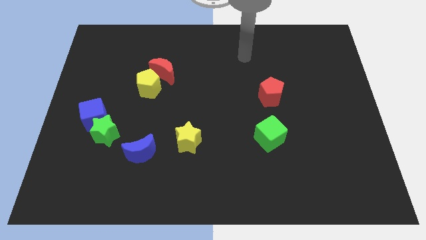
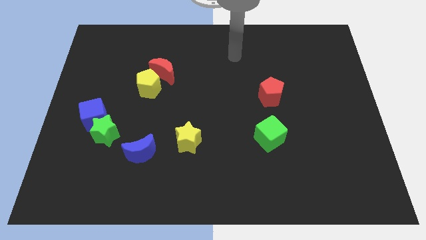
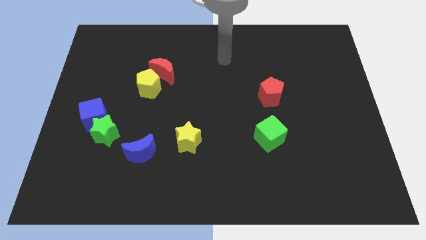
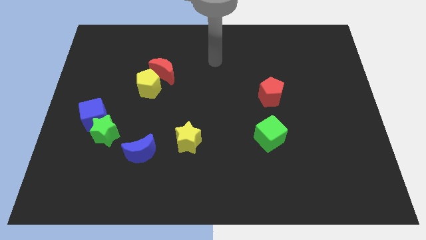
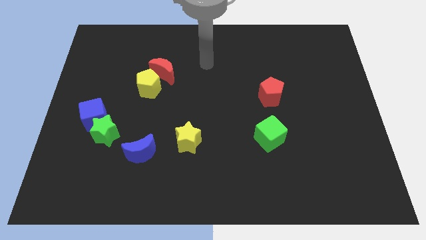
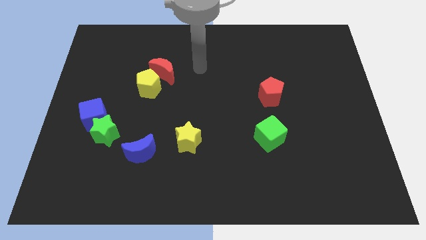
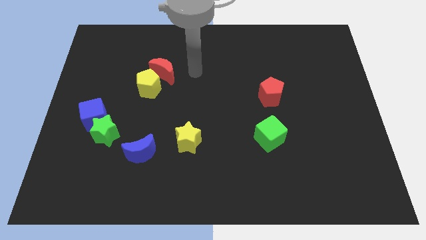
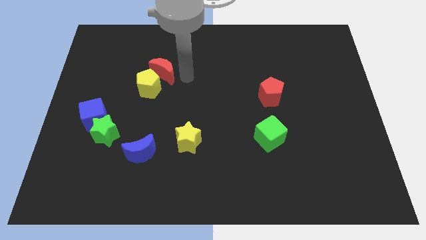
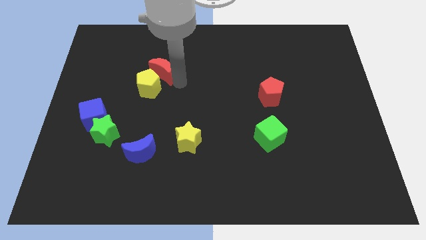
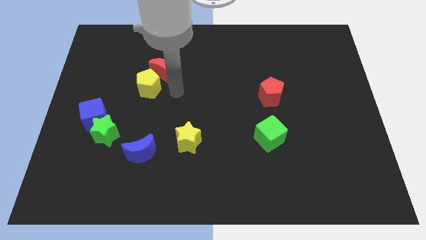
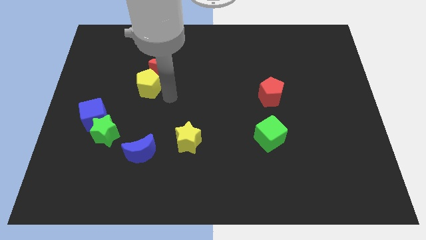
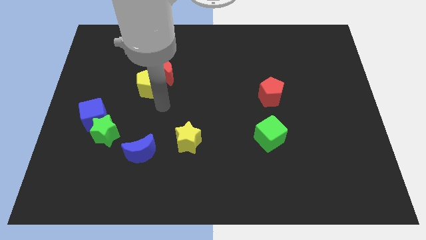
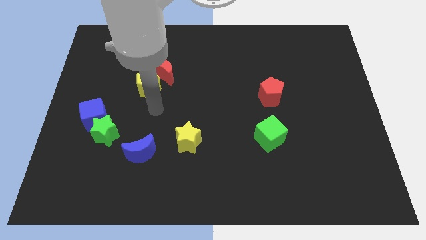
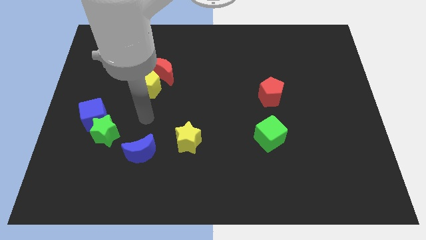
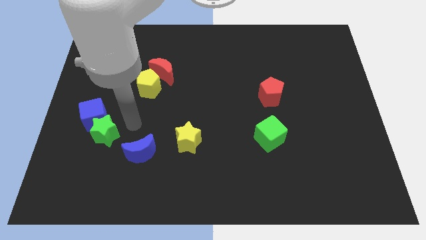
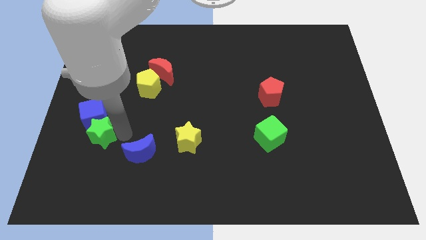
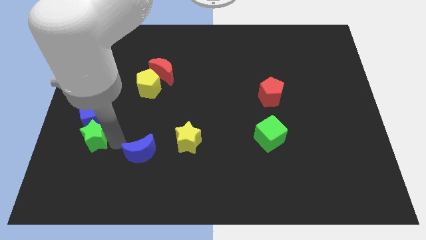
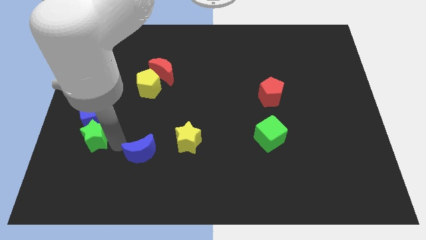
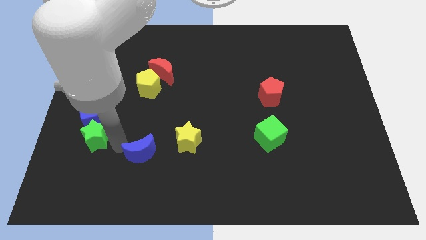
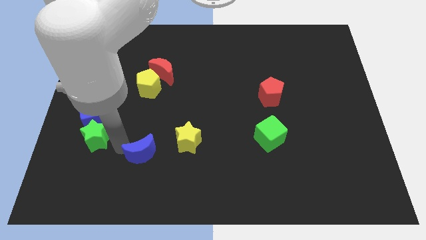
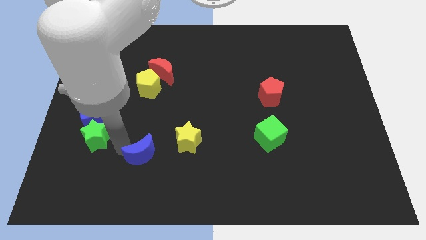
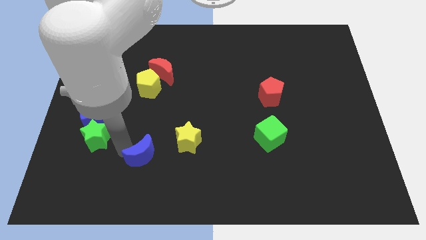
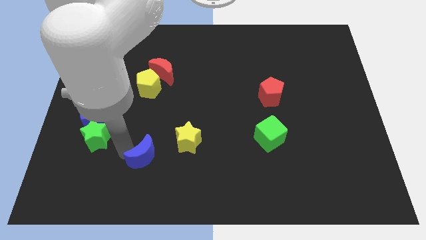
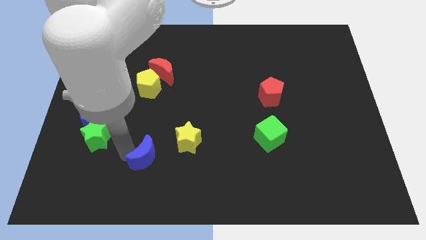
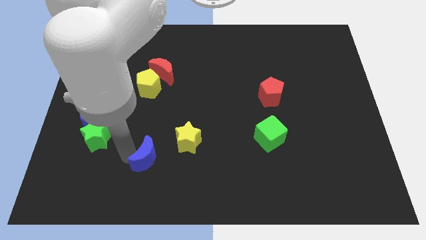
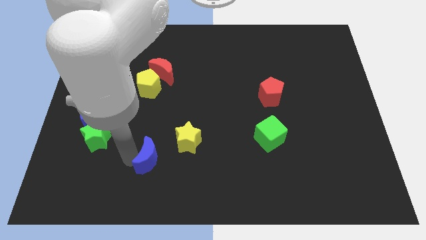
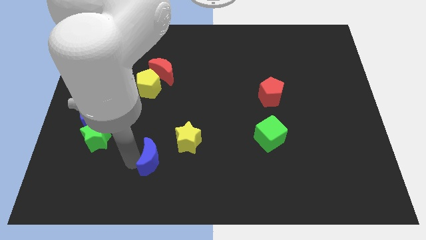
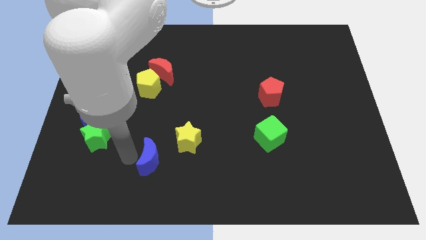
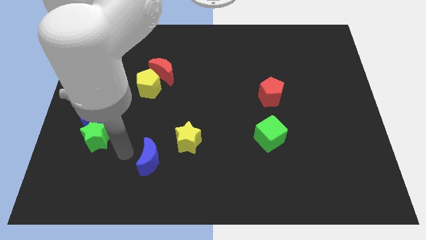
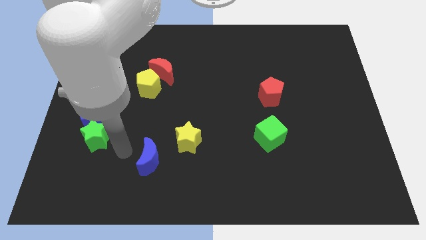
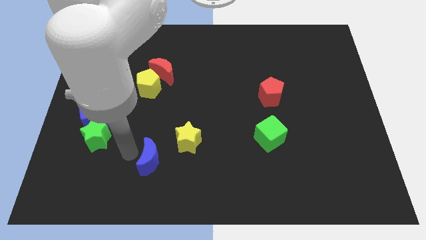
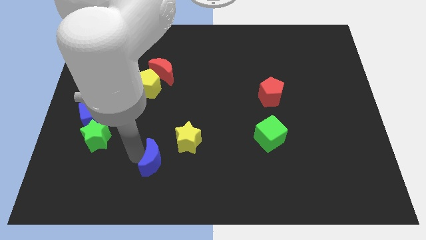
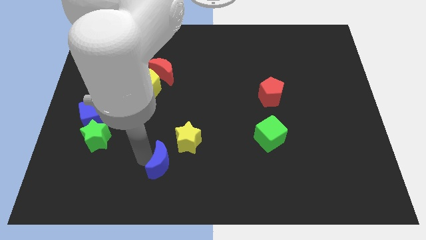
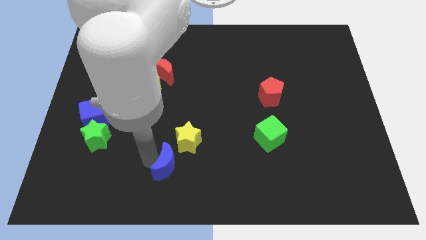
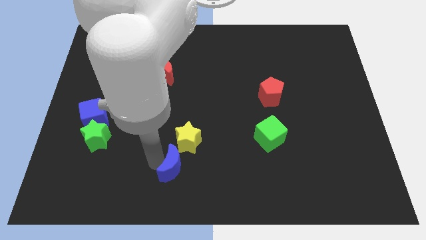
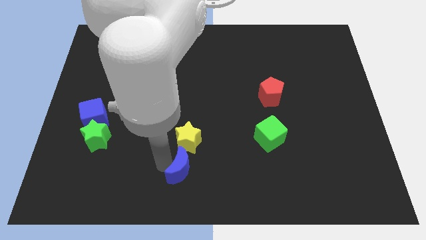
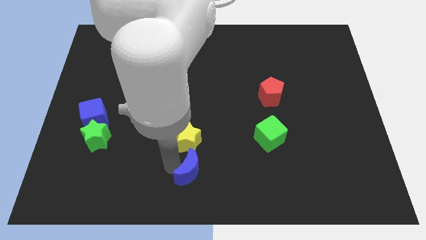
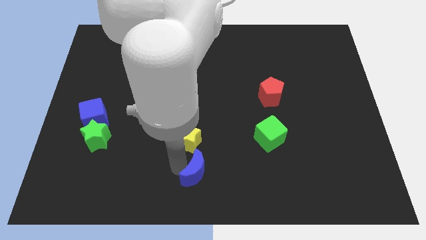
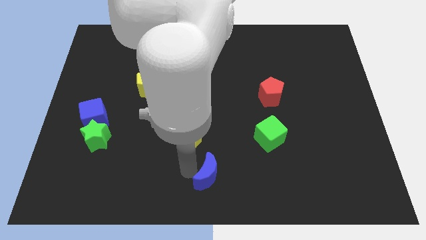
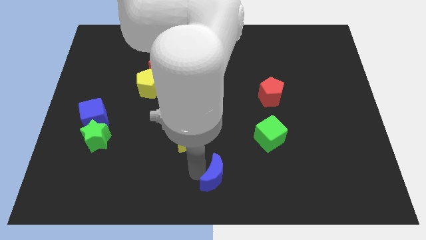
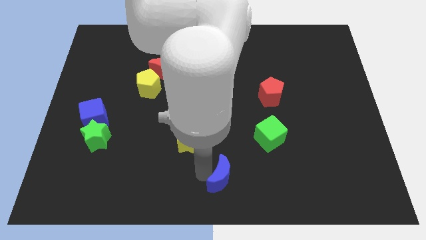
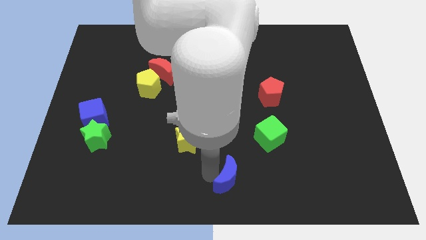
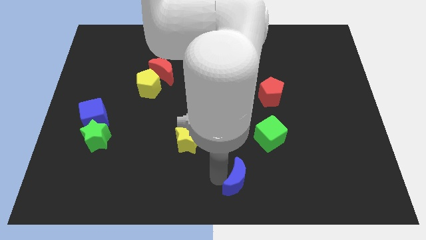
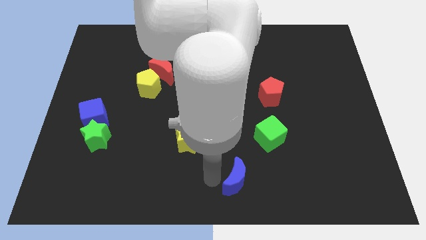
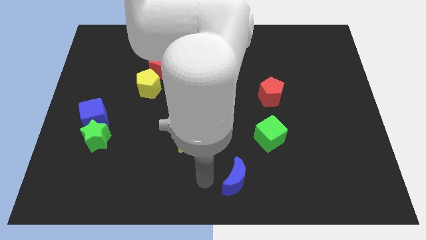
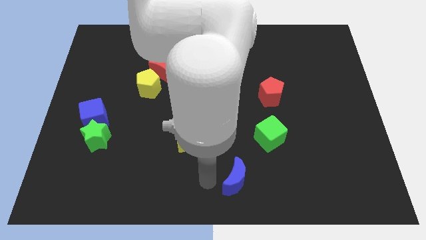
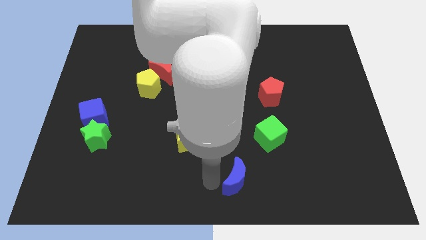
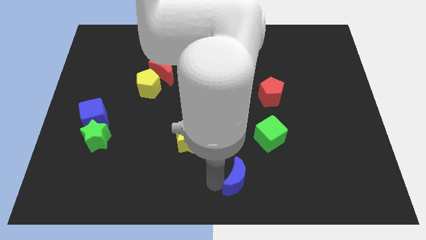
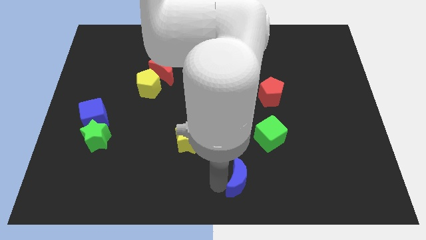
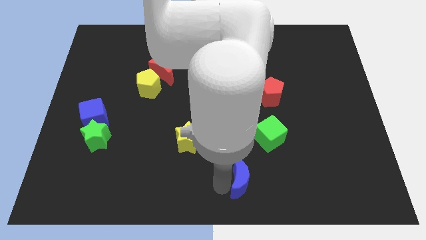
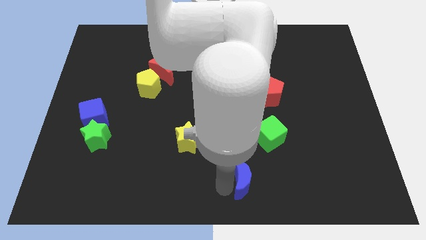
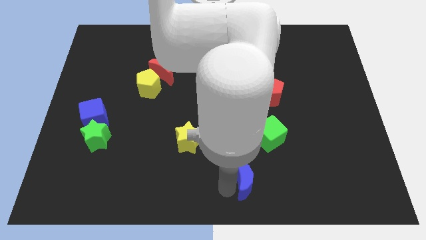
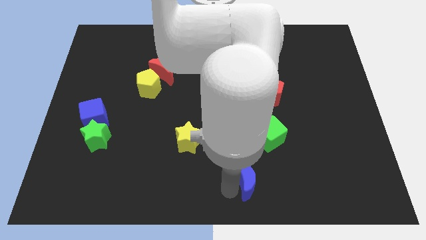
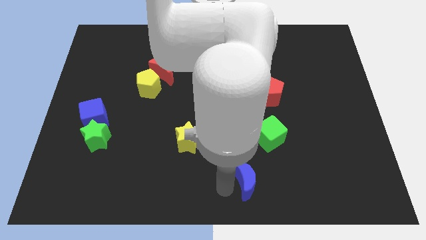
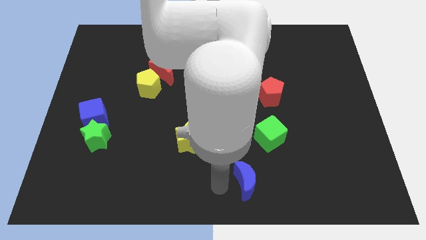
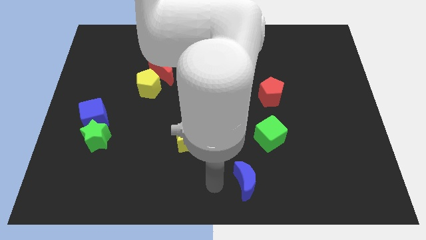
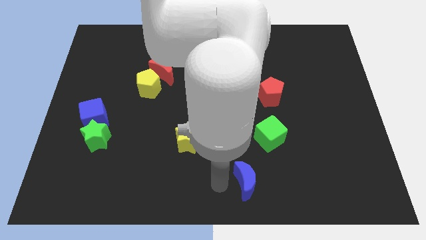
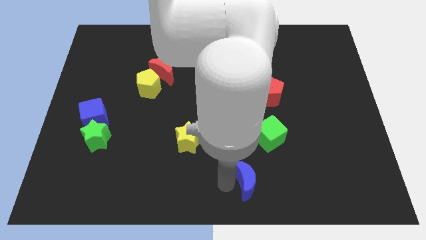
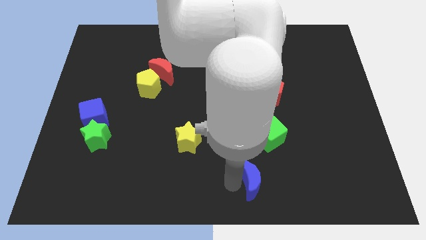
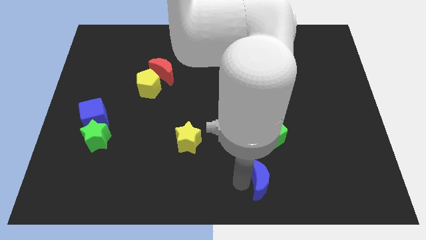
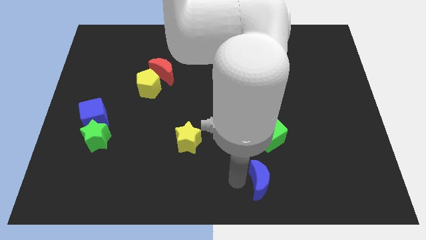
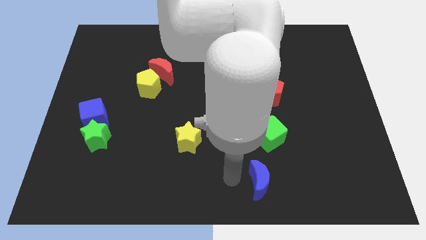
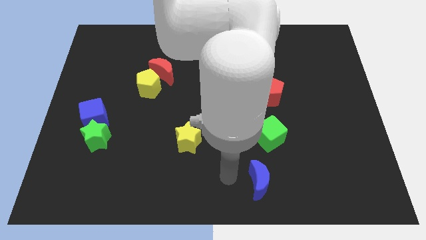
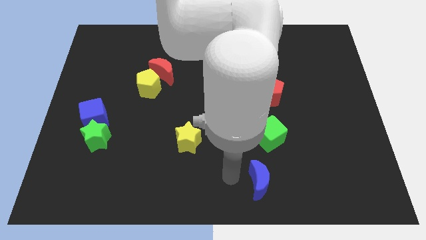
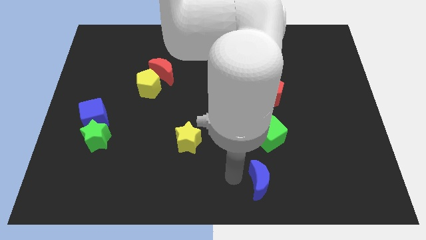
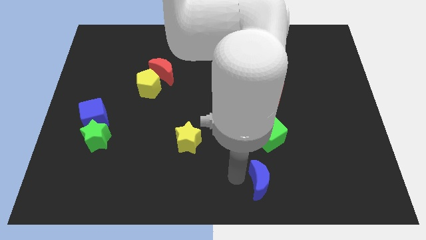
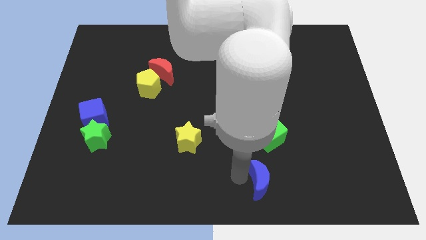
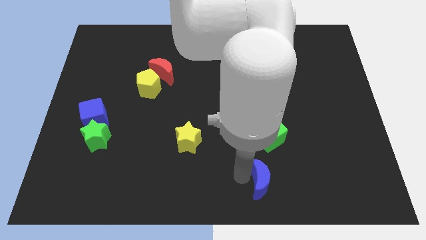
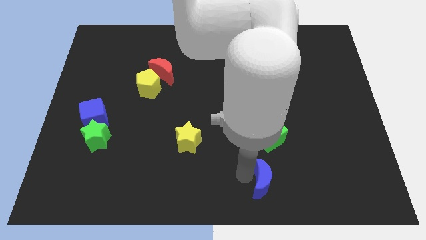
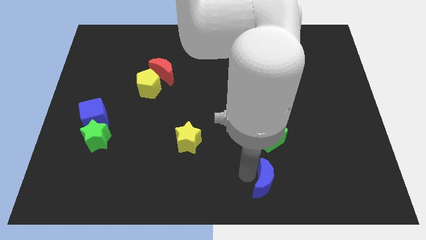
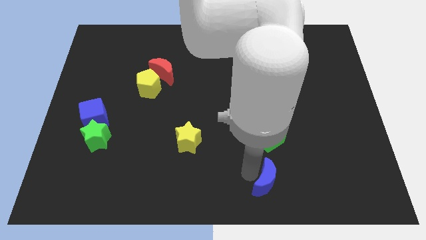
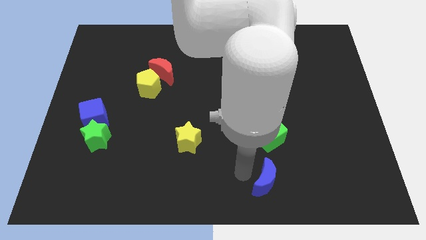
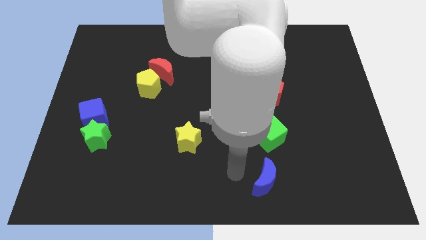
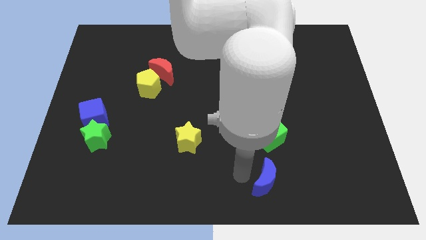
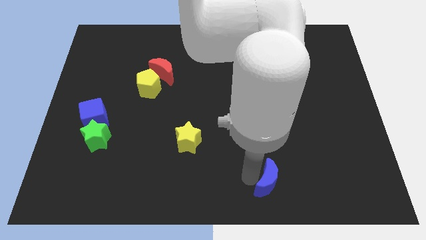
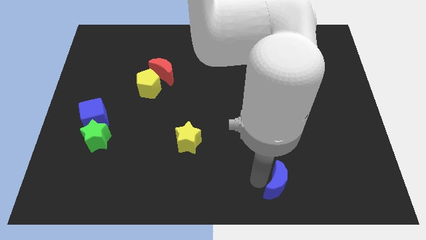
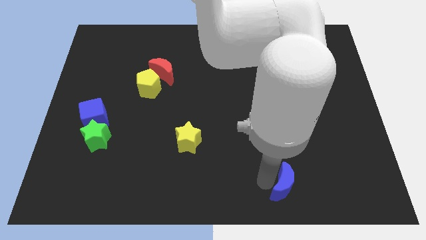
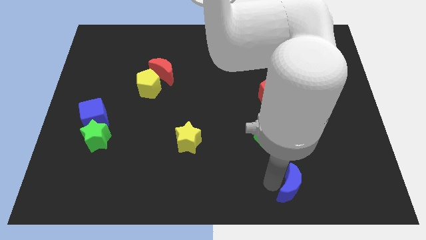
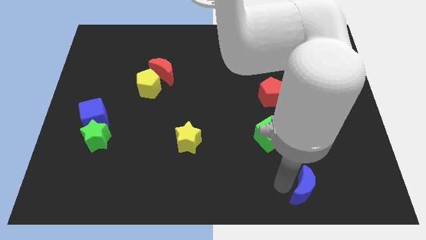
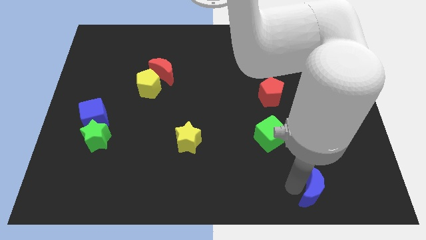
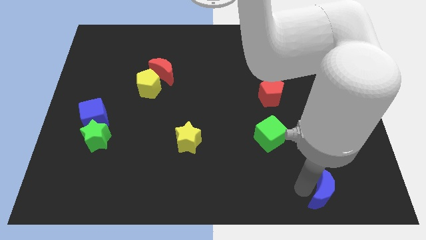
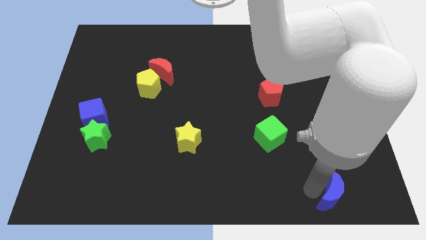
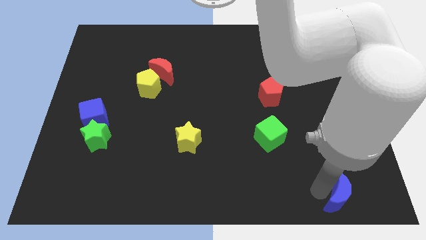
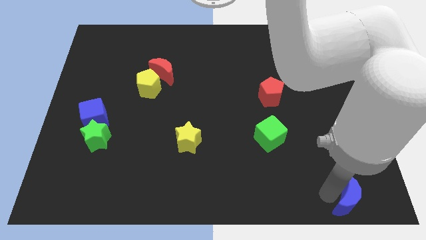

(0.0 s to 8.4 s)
slide the blue moon to the bottom right
